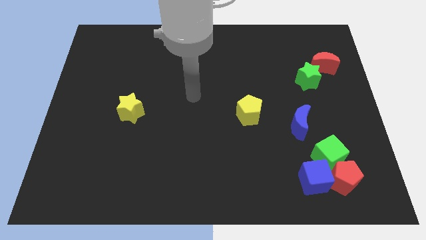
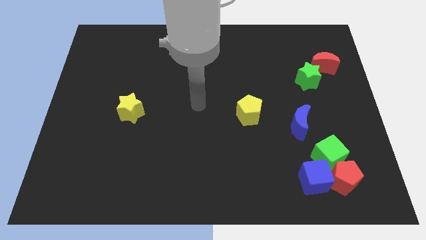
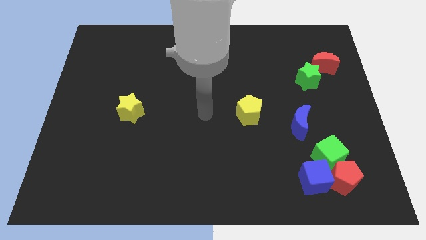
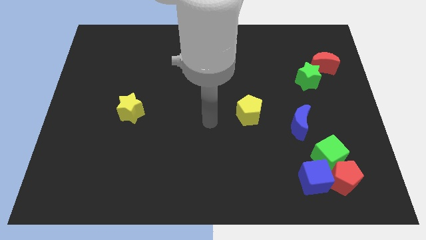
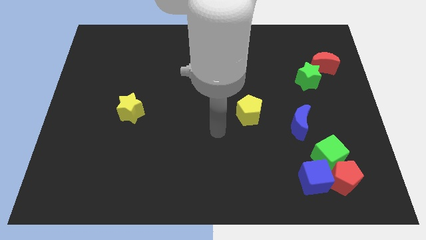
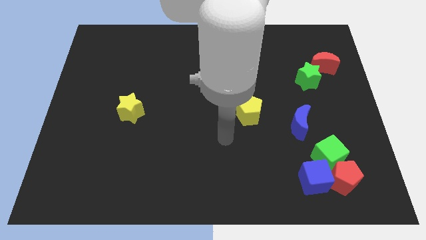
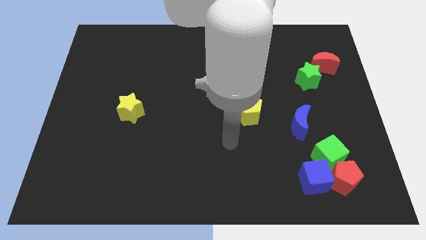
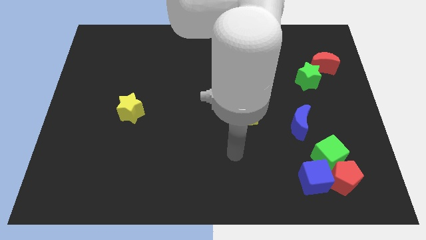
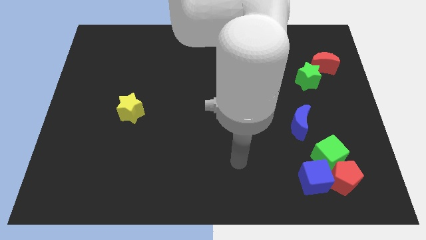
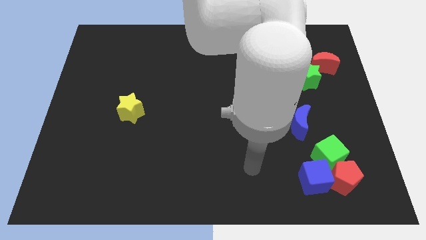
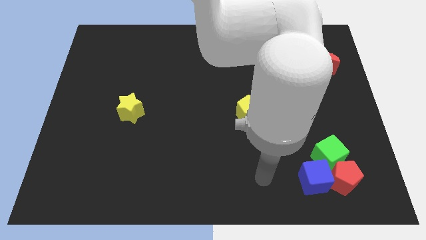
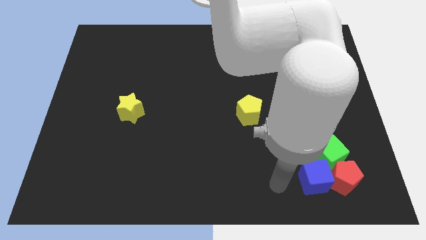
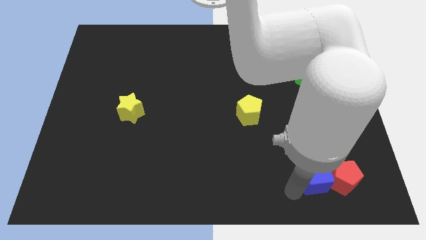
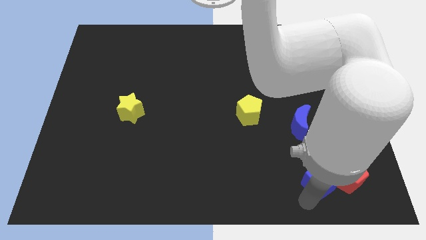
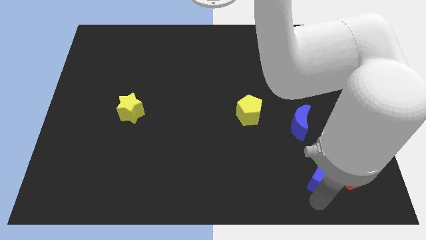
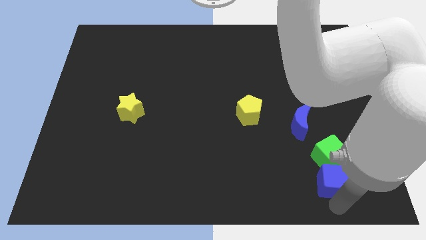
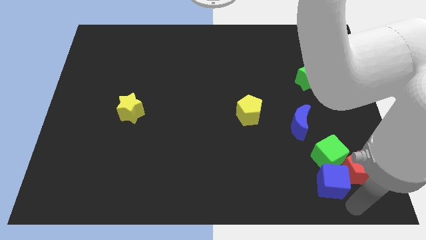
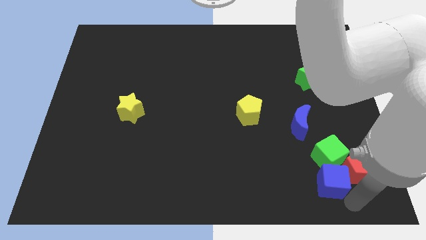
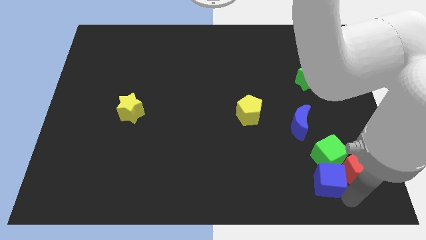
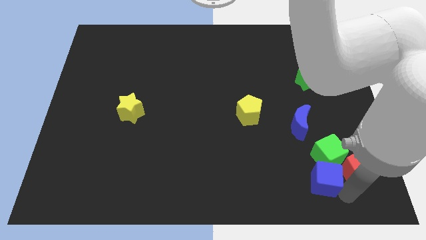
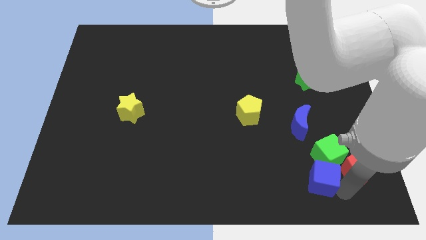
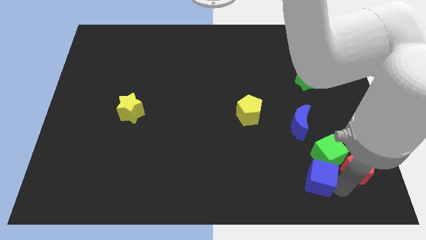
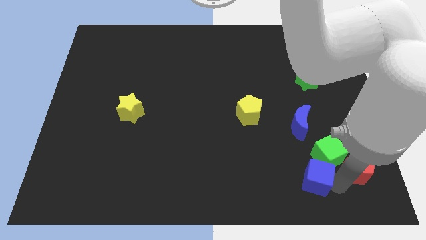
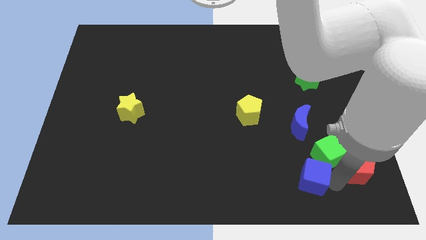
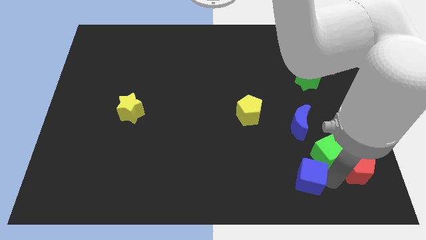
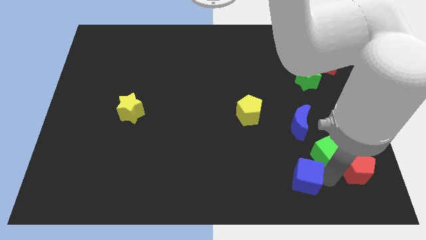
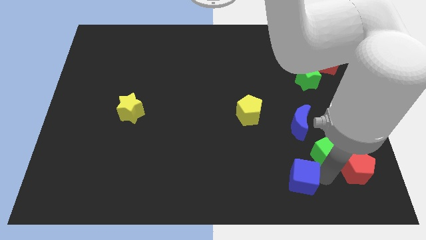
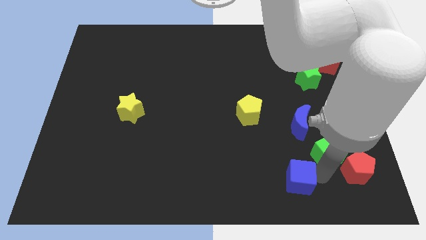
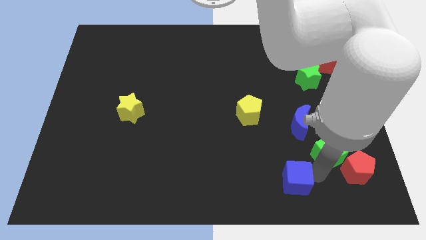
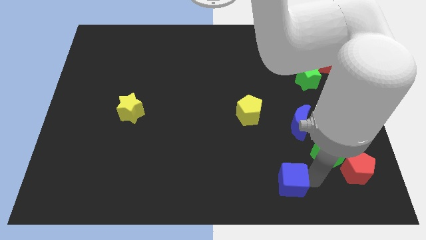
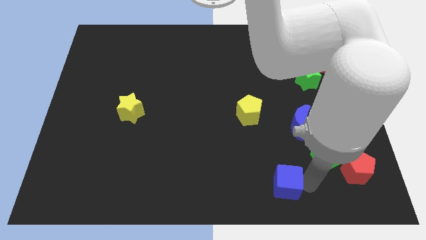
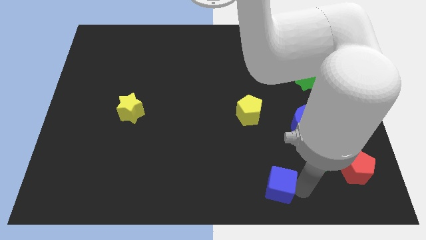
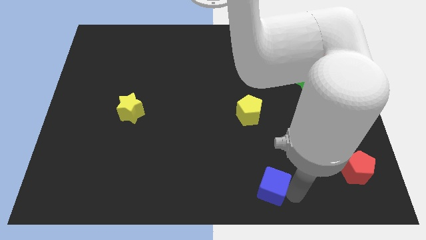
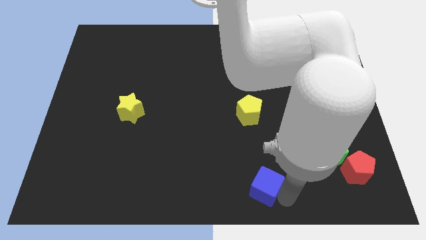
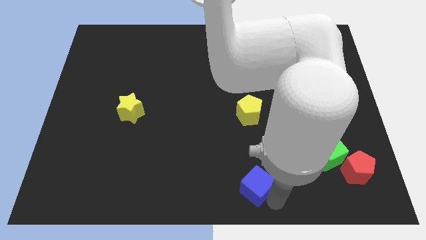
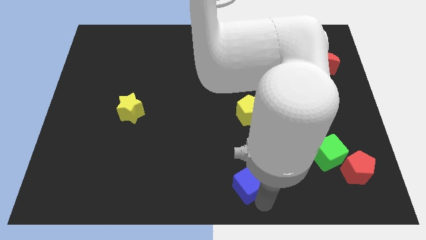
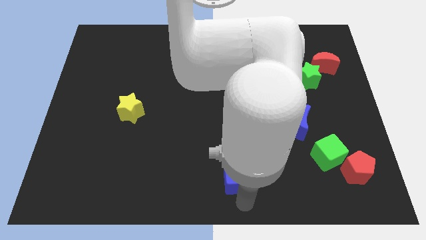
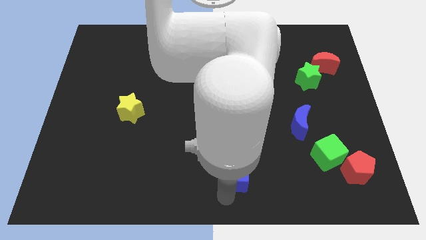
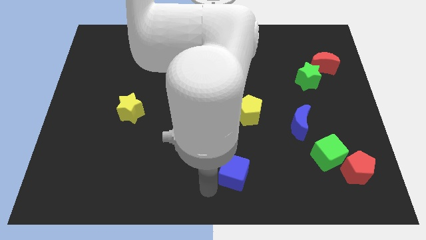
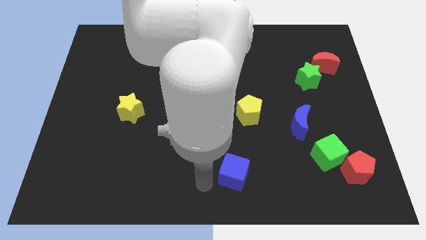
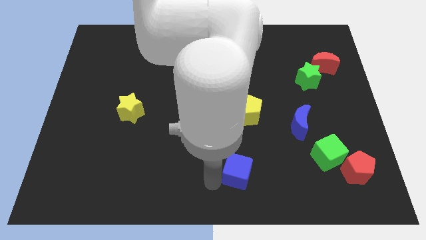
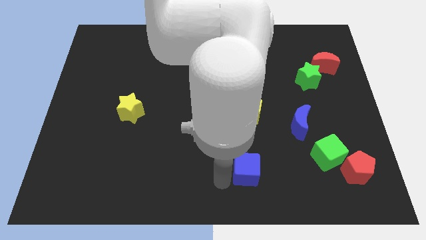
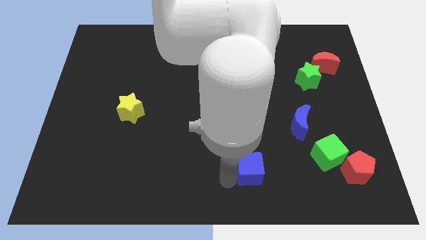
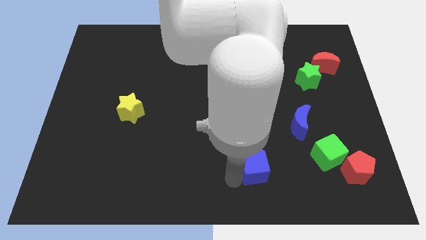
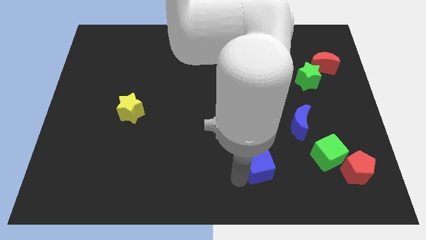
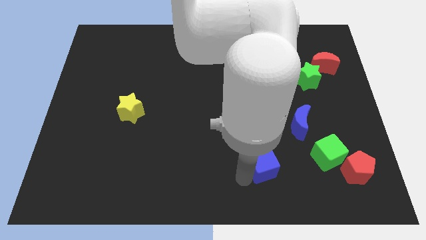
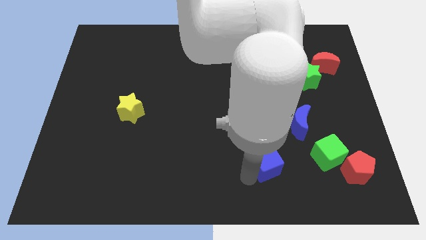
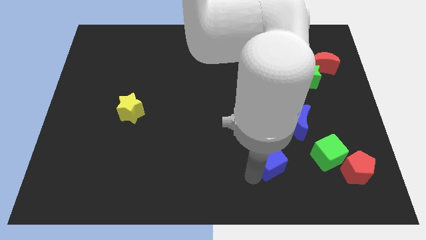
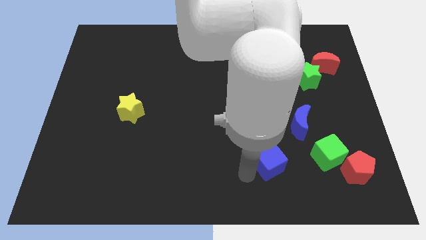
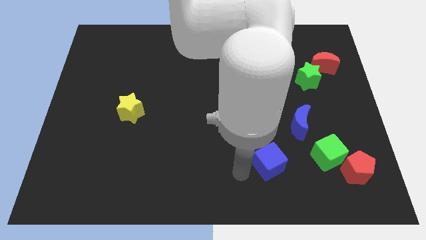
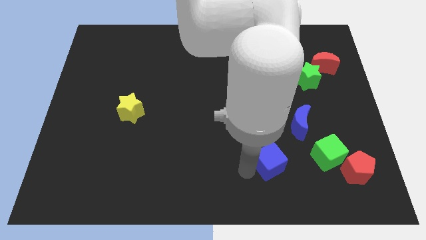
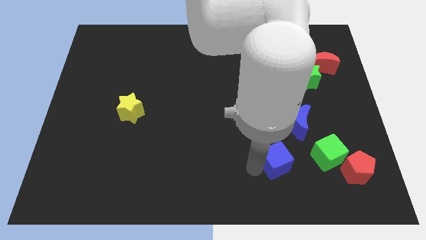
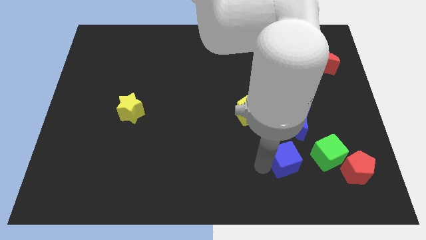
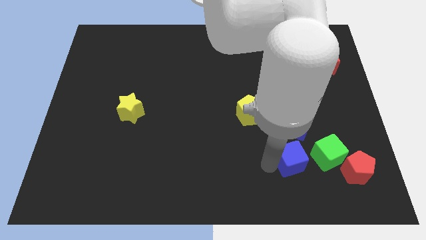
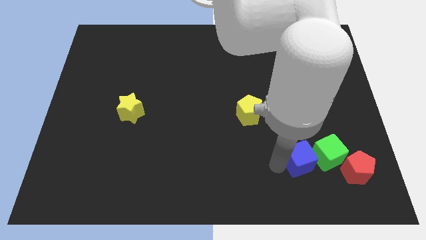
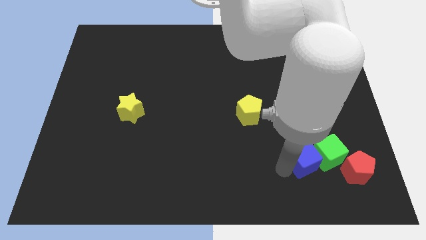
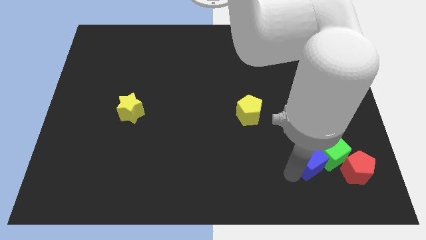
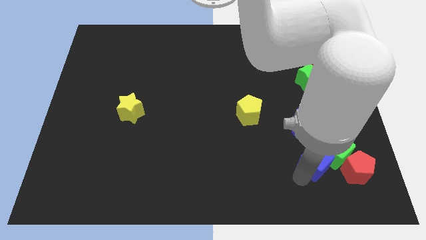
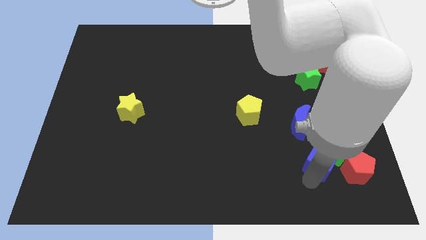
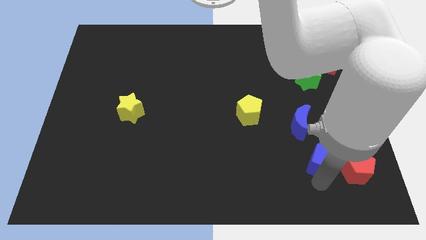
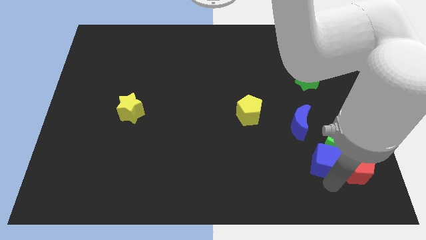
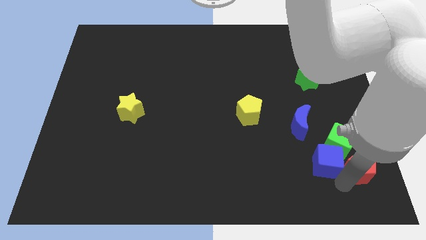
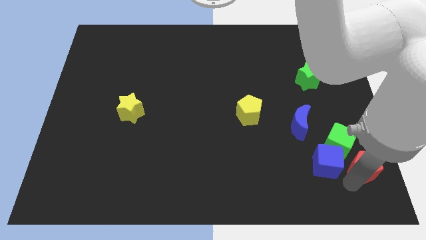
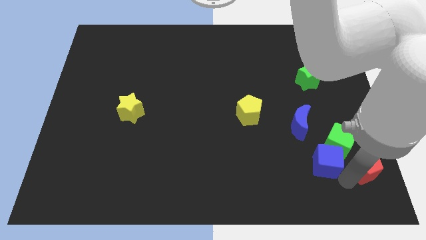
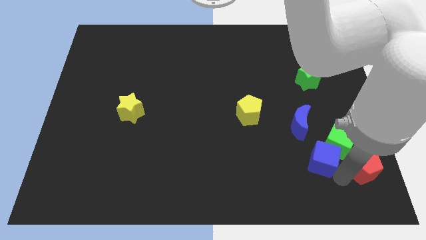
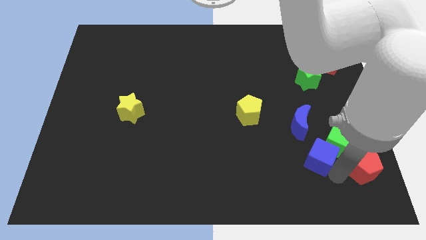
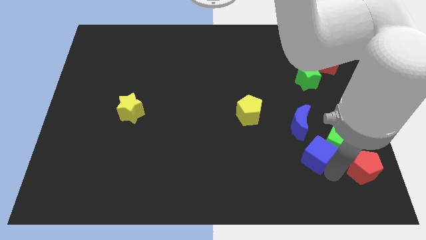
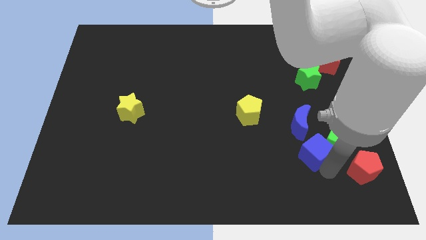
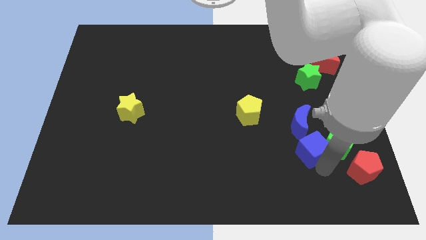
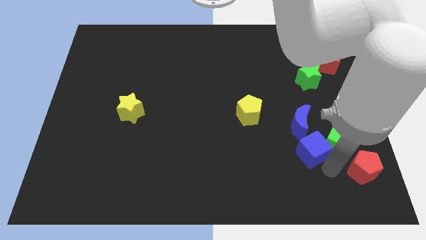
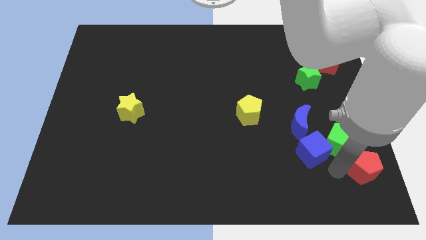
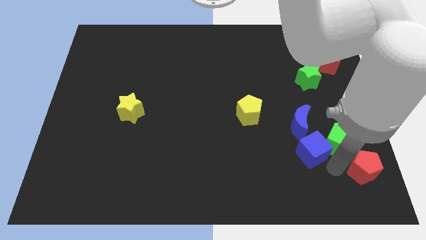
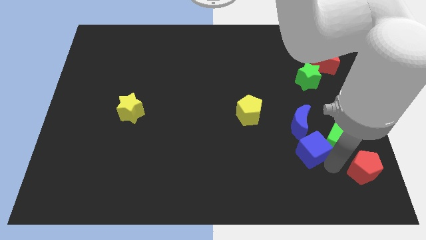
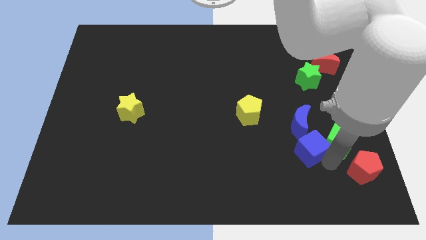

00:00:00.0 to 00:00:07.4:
slide the blue cube up a bit

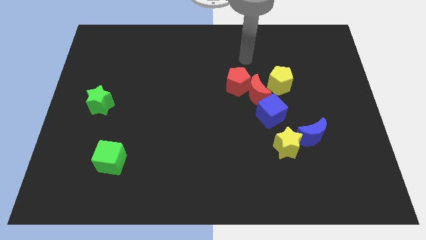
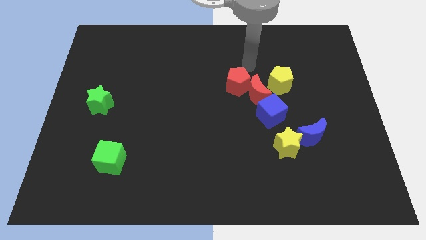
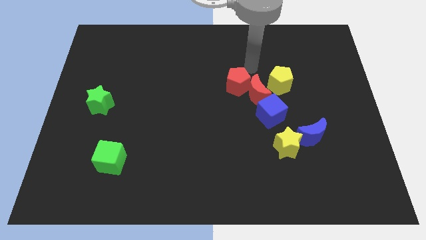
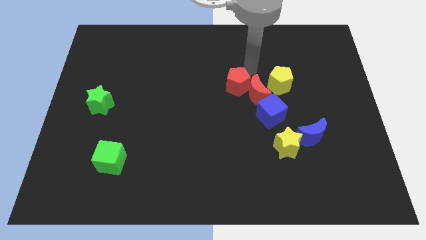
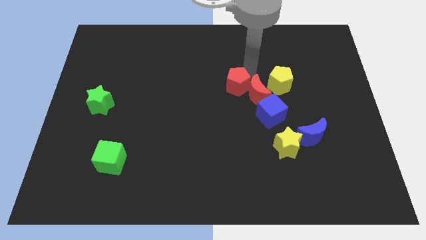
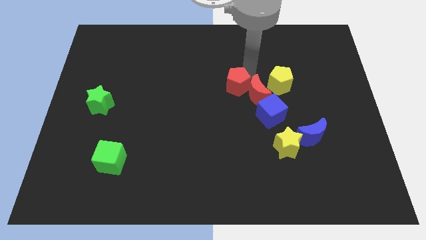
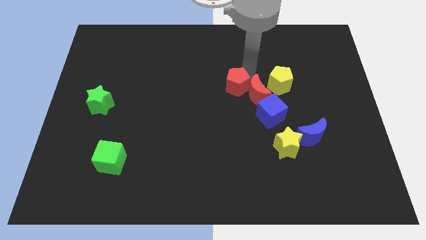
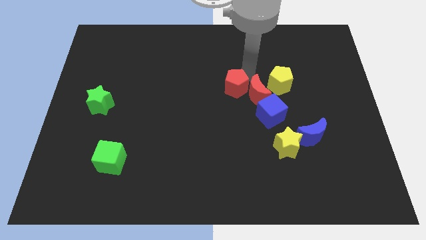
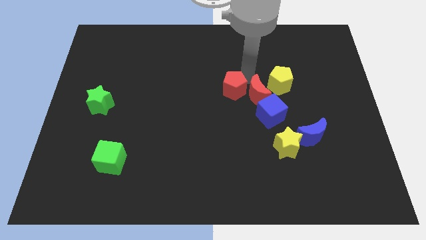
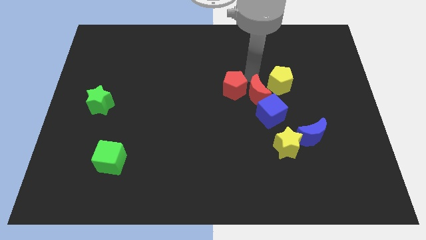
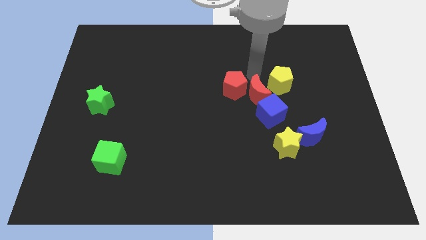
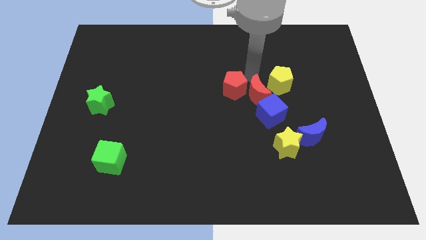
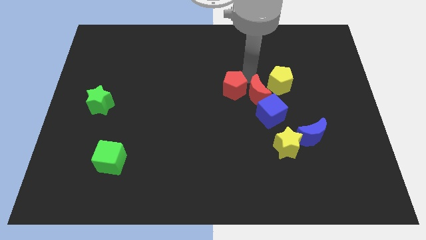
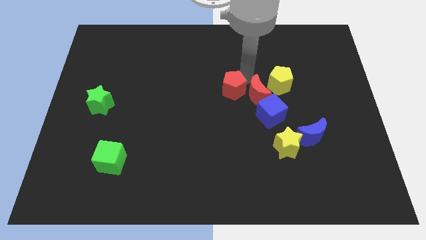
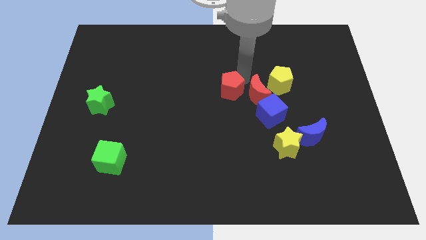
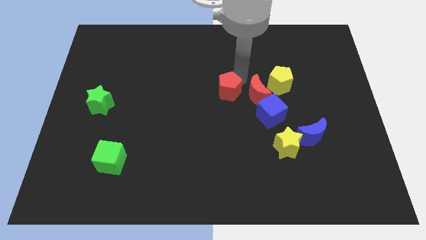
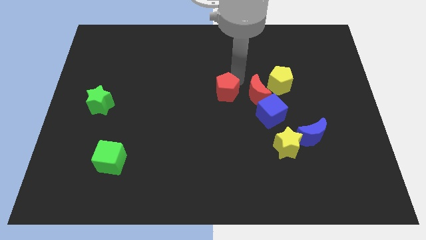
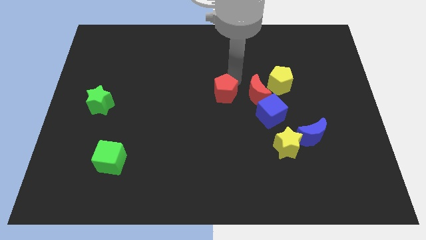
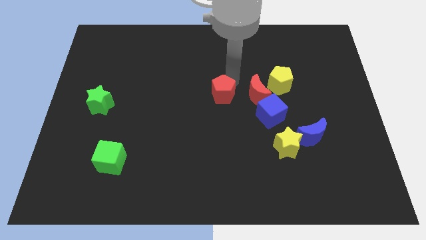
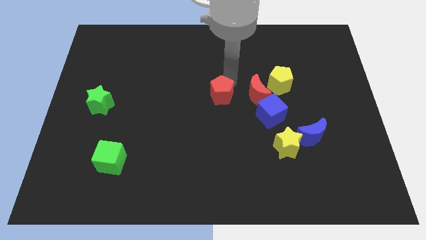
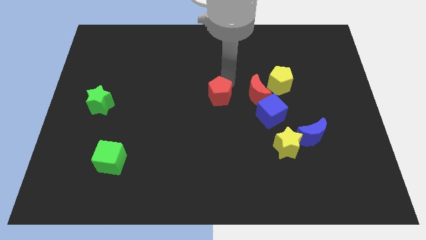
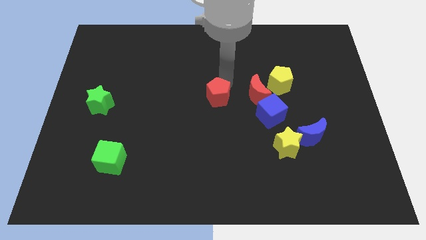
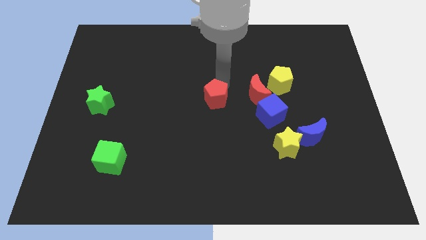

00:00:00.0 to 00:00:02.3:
slide the red pentagon slightly diagonally downwards and to the left
